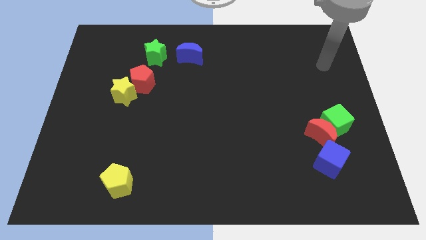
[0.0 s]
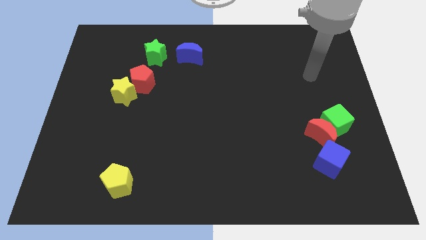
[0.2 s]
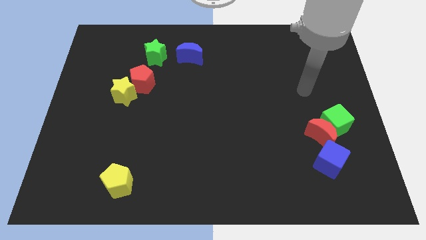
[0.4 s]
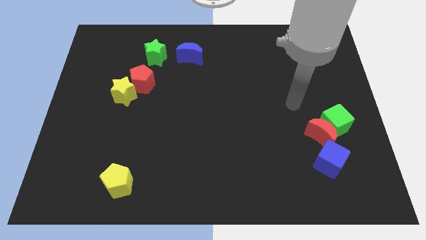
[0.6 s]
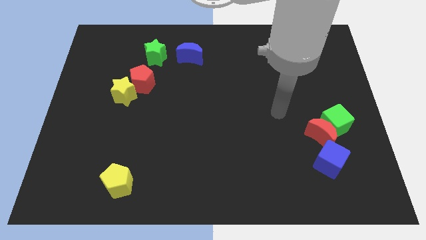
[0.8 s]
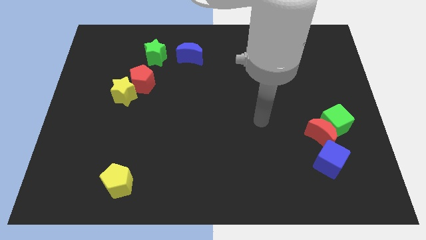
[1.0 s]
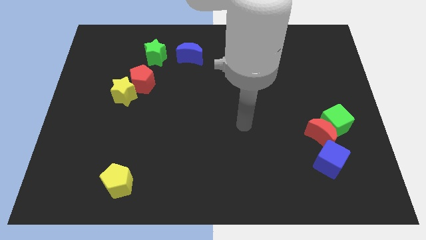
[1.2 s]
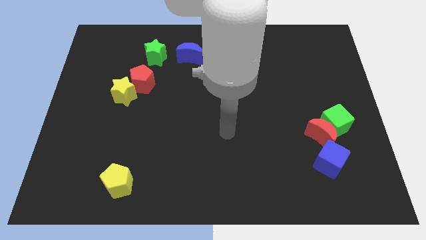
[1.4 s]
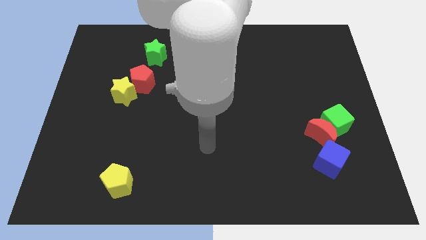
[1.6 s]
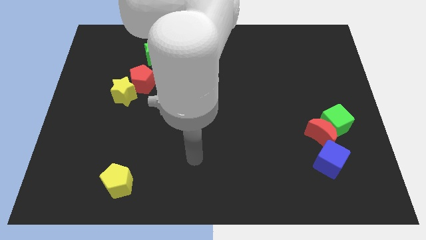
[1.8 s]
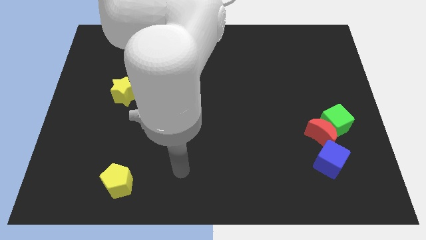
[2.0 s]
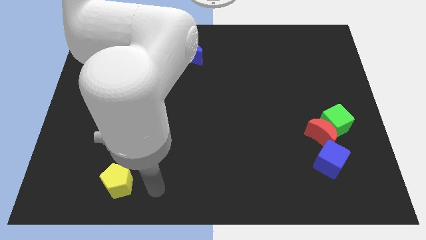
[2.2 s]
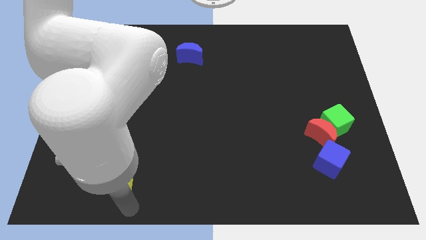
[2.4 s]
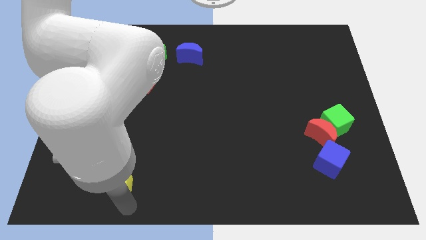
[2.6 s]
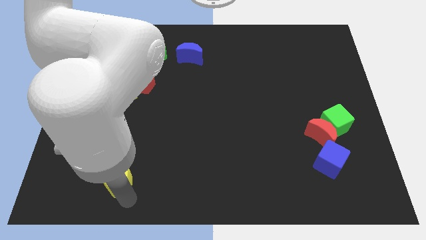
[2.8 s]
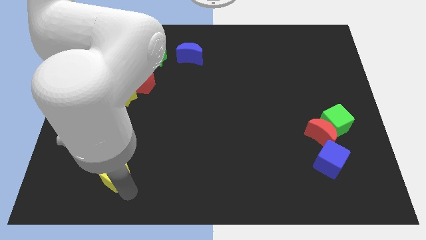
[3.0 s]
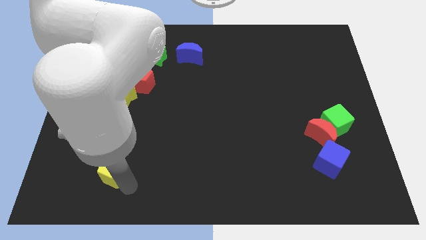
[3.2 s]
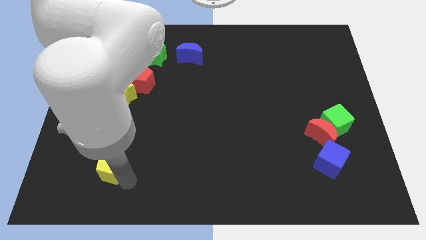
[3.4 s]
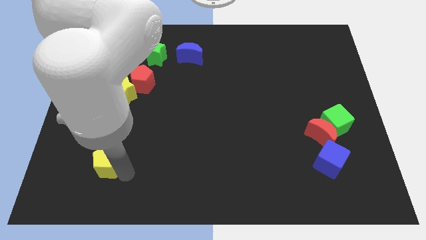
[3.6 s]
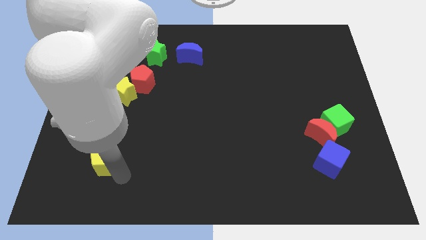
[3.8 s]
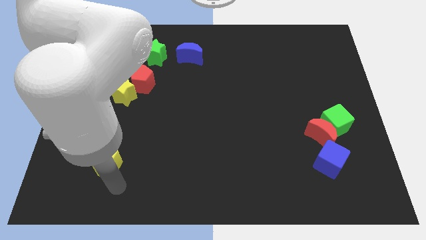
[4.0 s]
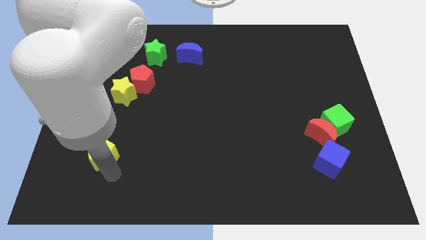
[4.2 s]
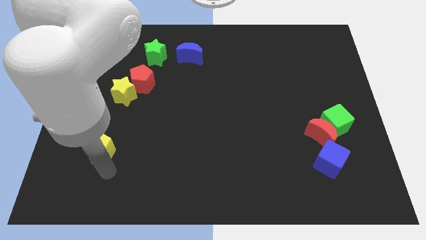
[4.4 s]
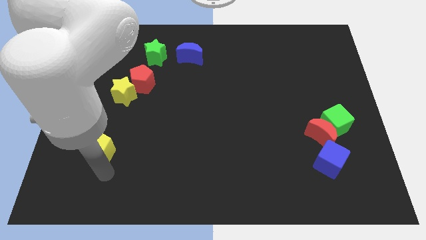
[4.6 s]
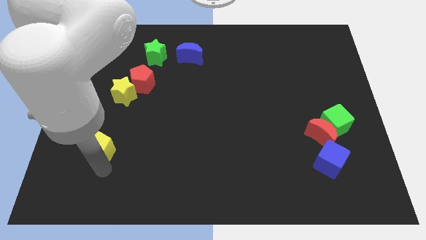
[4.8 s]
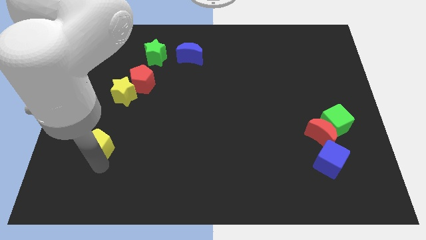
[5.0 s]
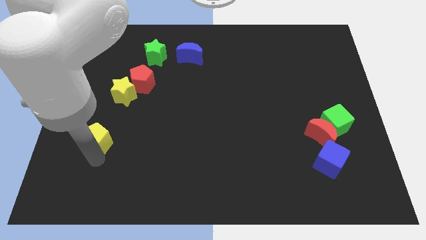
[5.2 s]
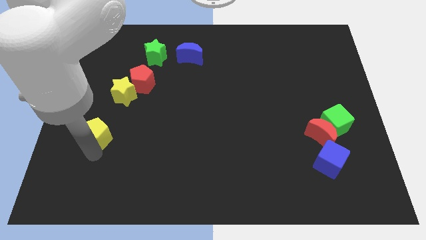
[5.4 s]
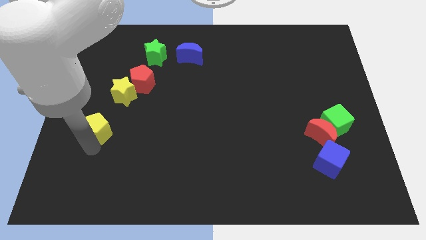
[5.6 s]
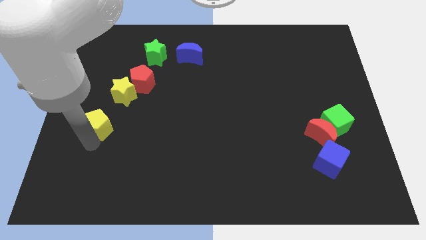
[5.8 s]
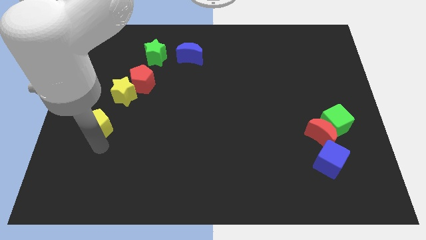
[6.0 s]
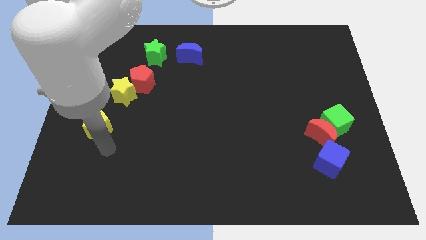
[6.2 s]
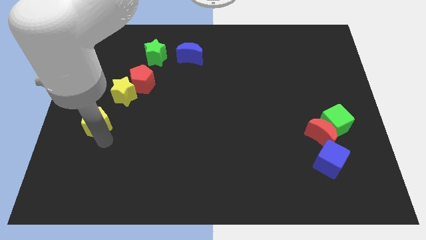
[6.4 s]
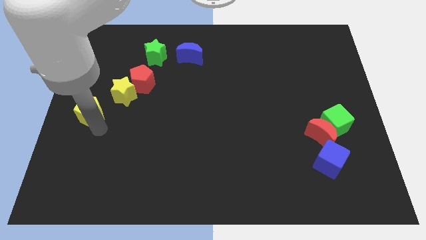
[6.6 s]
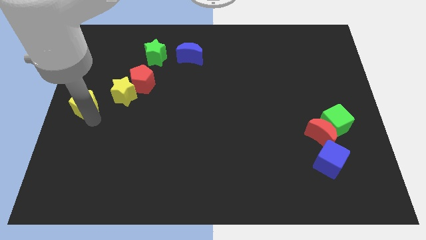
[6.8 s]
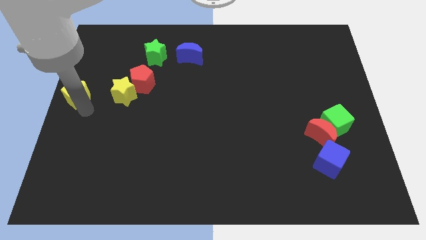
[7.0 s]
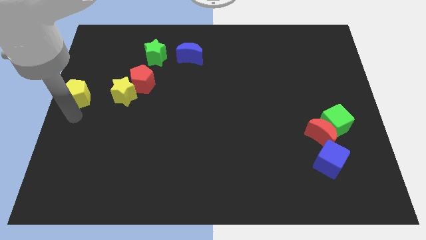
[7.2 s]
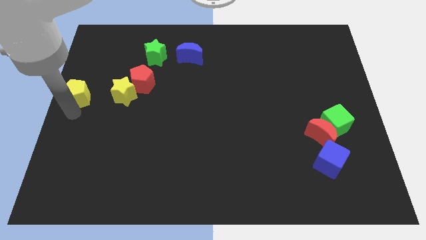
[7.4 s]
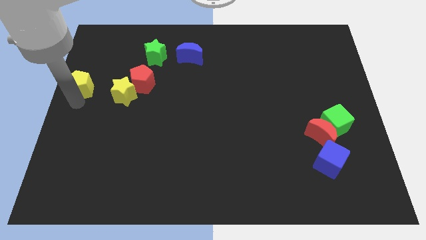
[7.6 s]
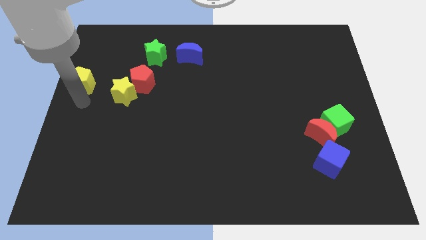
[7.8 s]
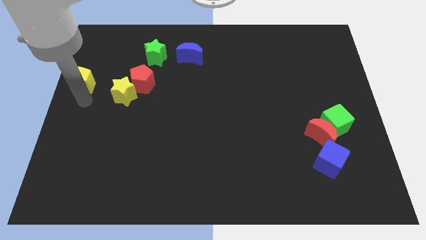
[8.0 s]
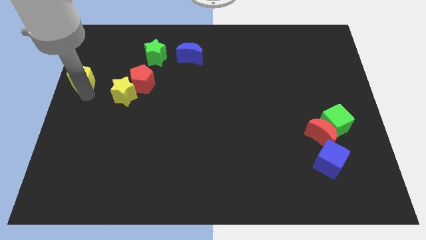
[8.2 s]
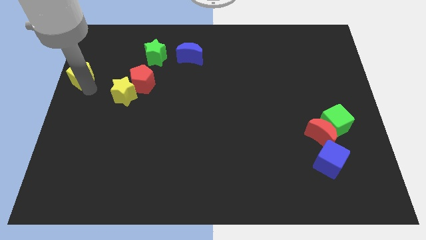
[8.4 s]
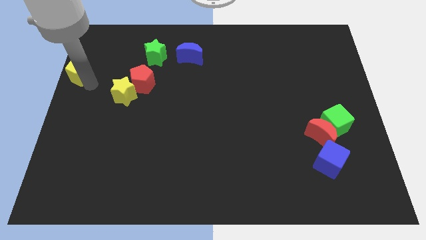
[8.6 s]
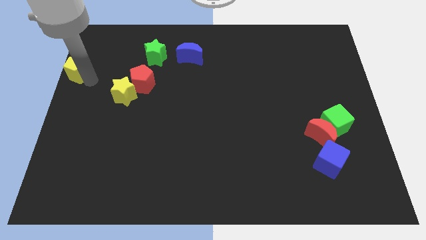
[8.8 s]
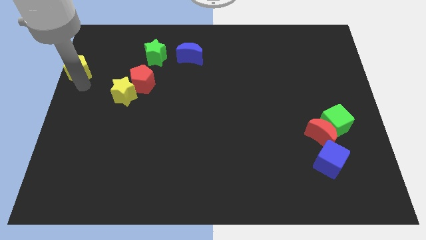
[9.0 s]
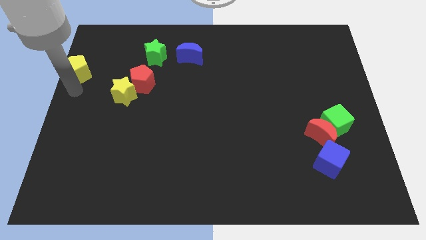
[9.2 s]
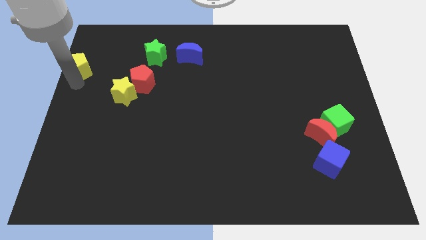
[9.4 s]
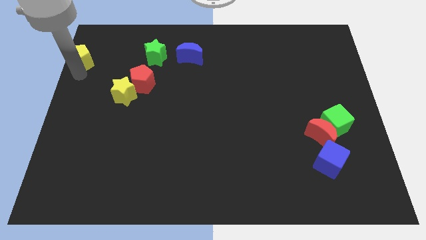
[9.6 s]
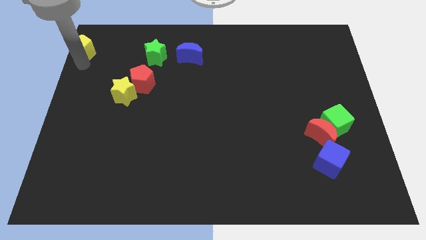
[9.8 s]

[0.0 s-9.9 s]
move the yellow pentagon to the top left corner
